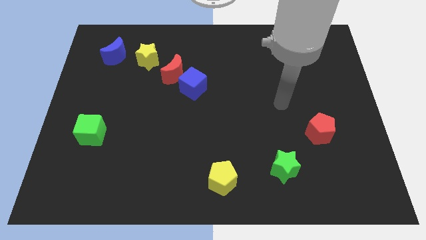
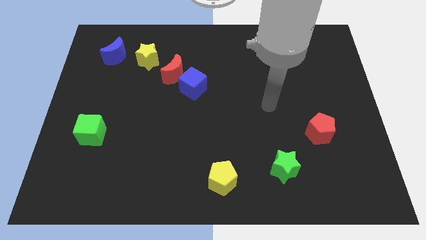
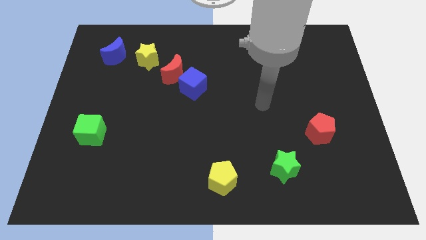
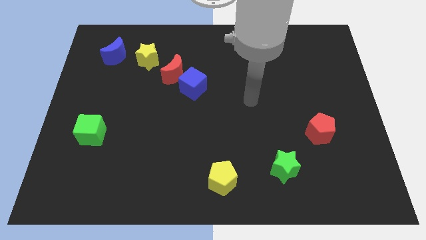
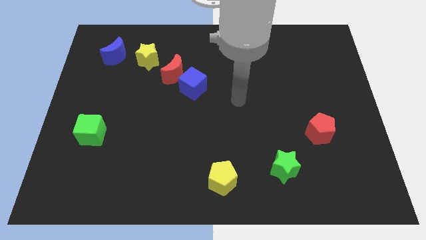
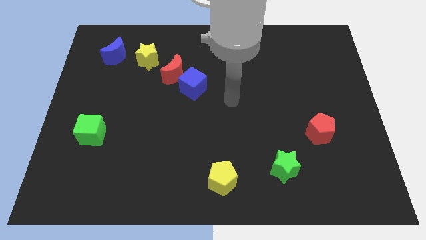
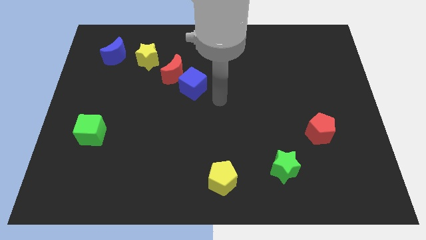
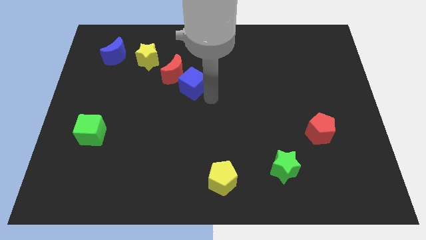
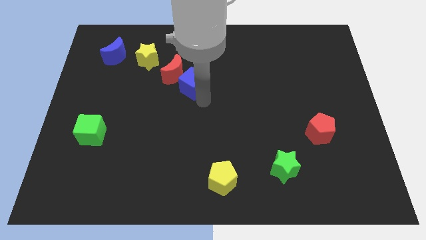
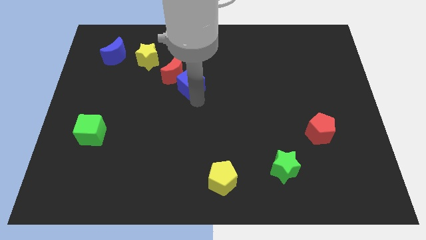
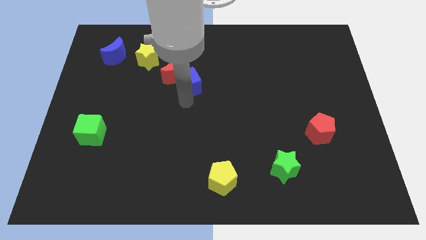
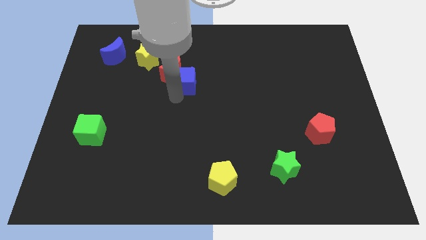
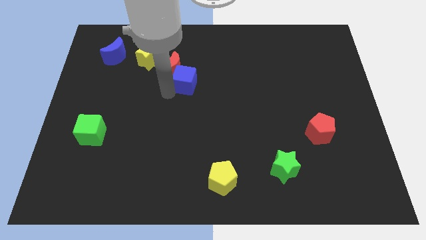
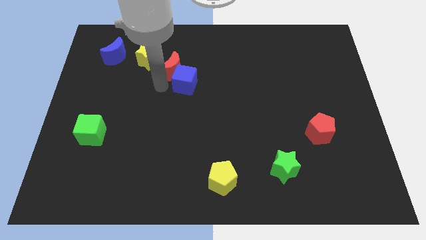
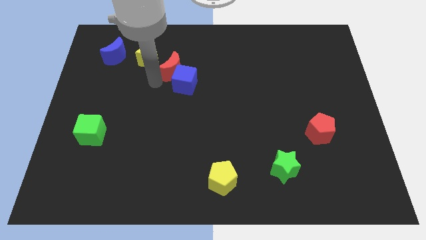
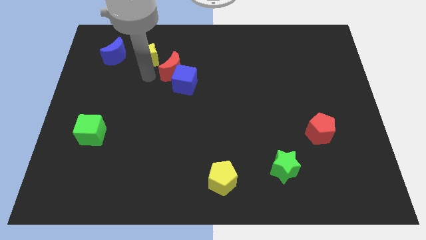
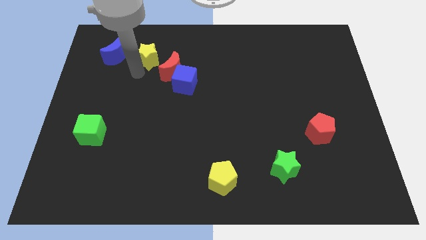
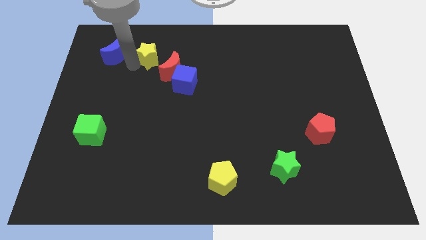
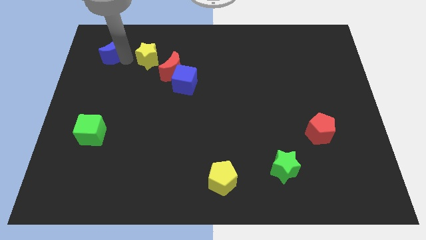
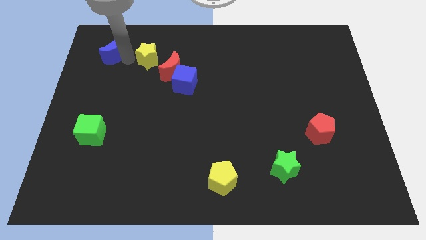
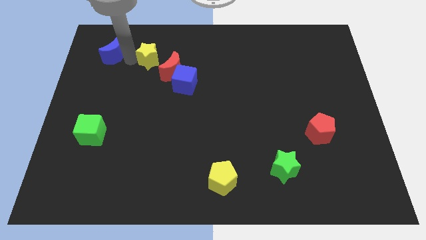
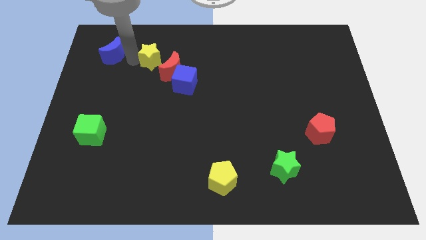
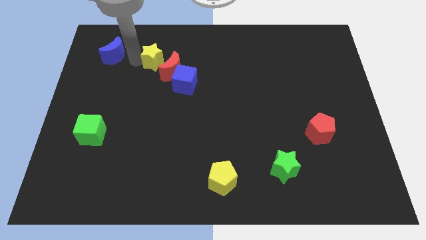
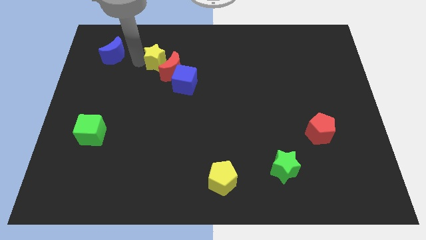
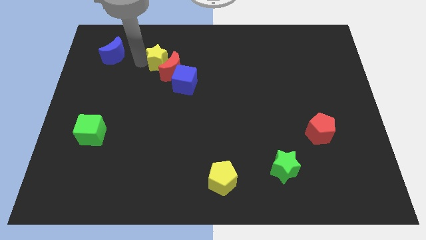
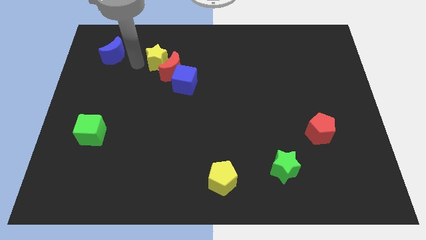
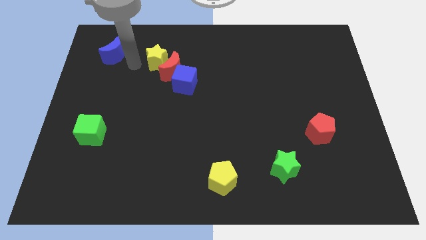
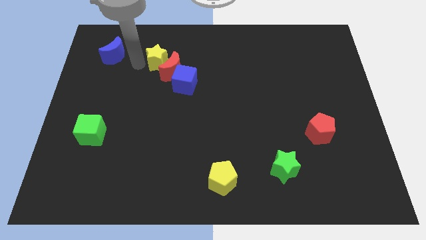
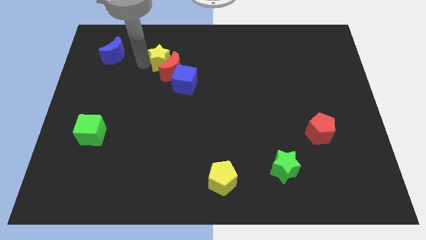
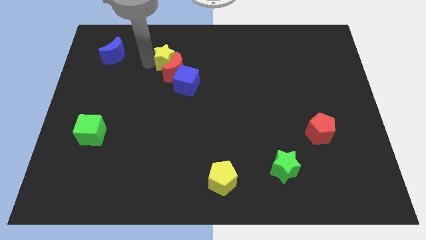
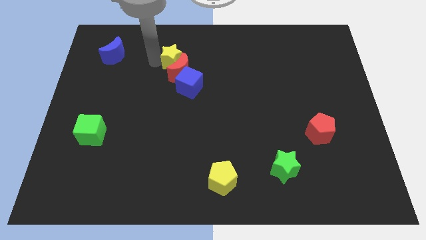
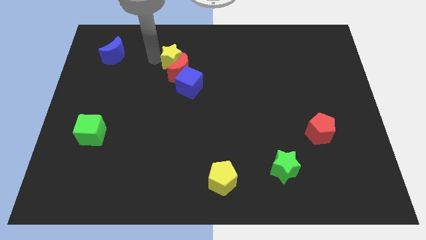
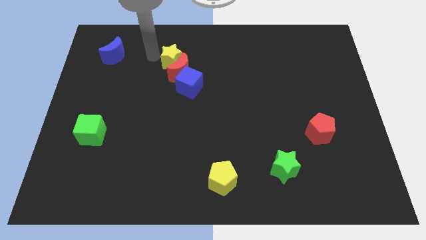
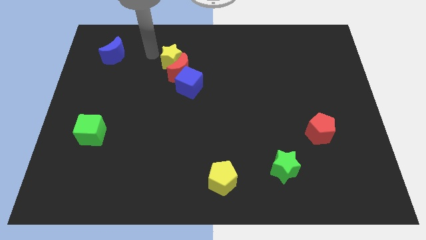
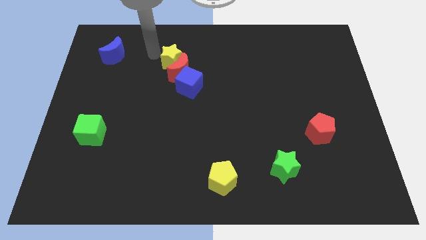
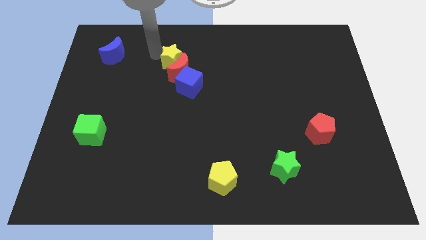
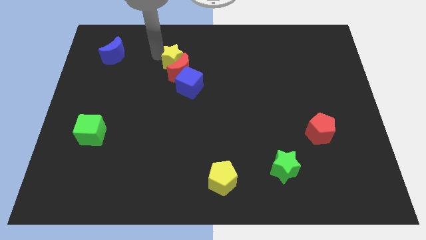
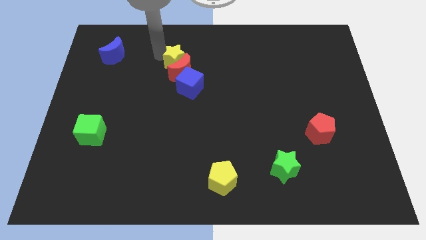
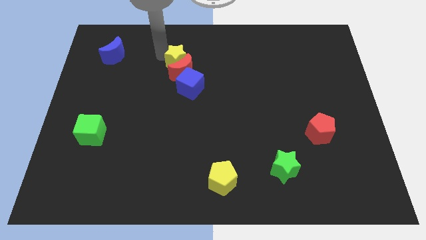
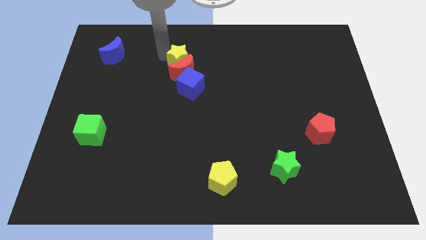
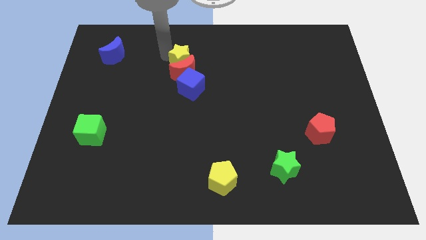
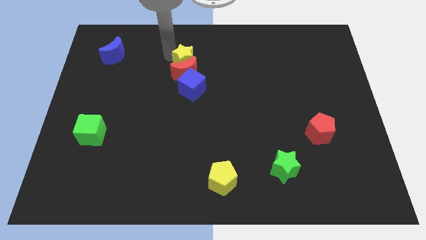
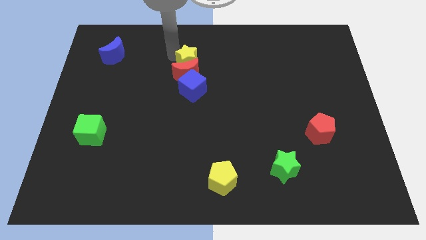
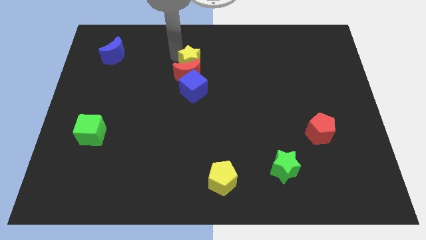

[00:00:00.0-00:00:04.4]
slide the yellow star a bit down and to the right

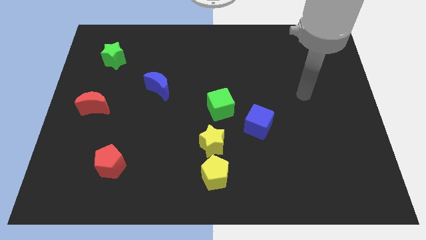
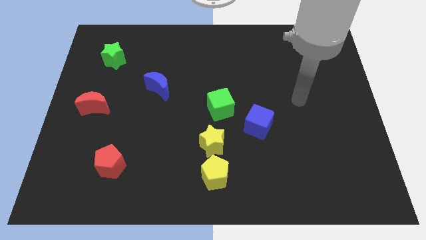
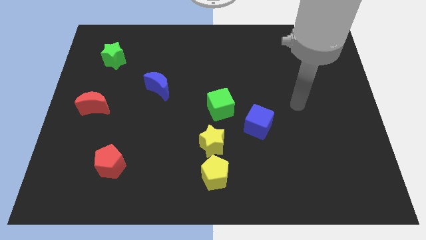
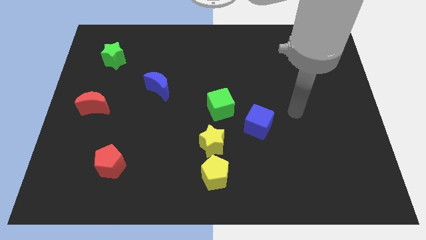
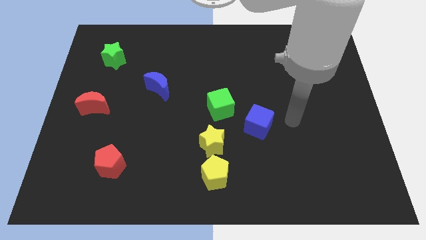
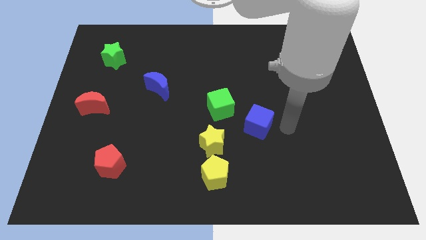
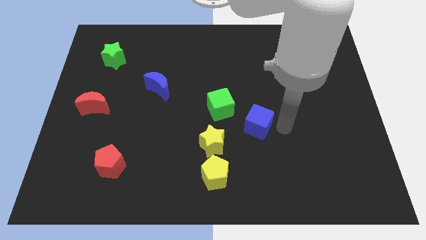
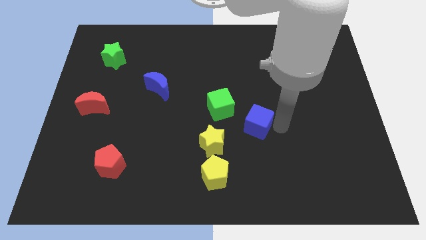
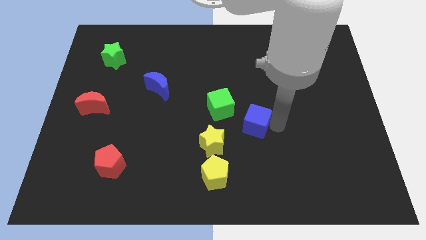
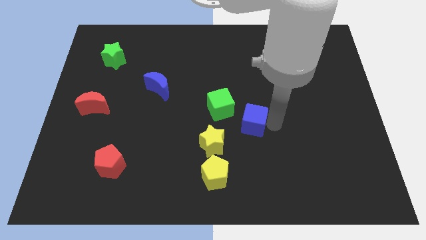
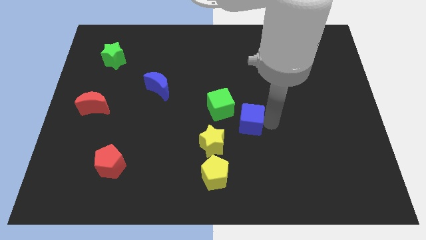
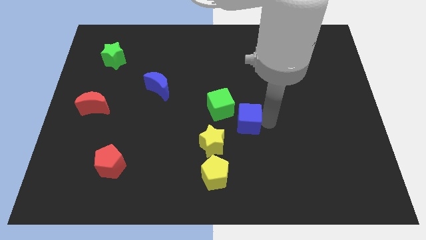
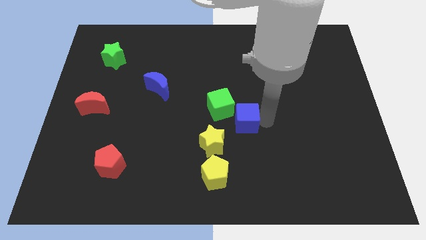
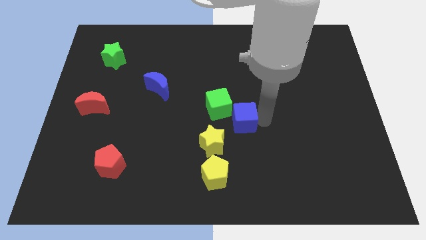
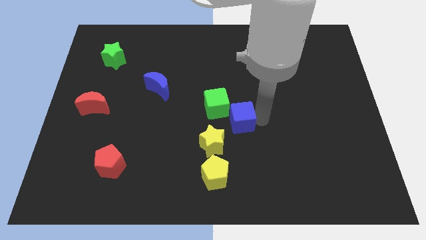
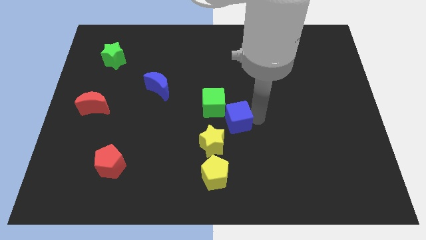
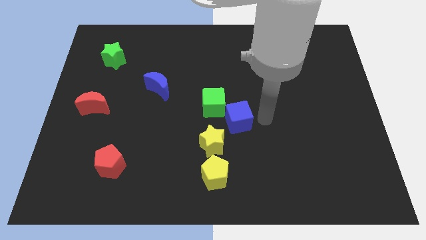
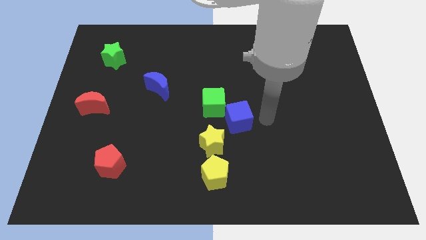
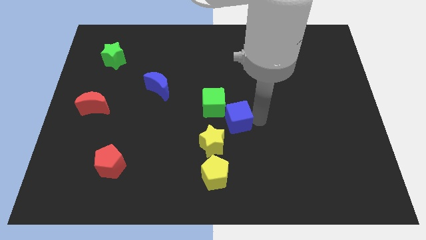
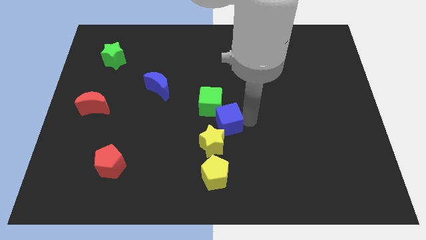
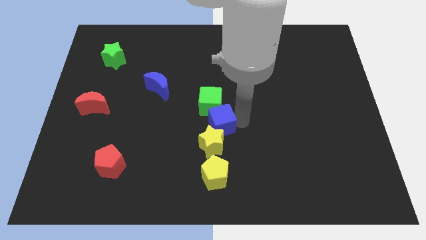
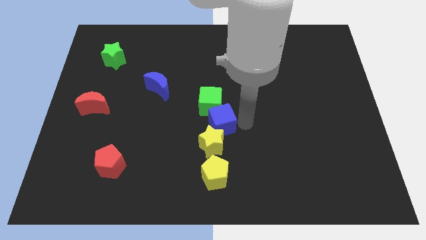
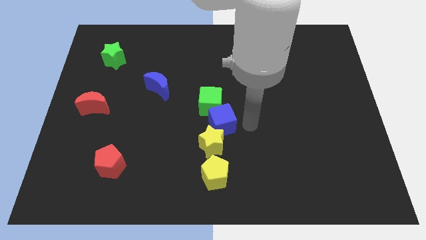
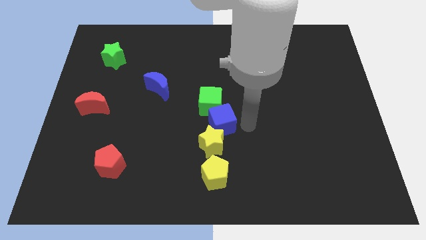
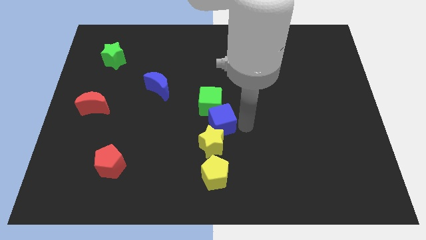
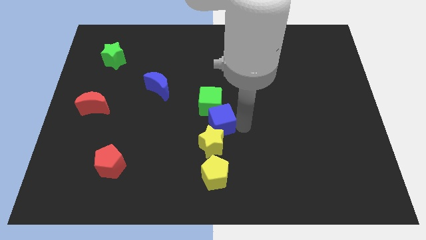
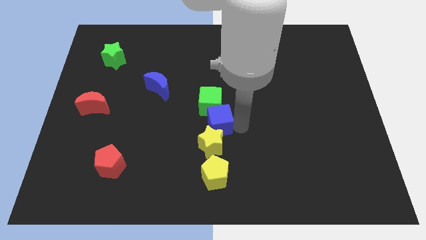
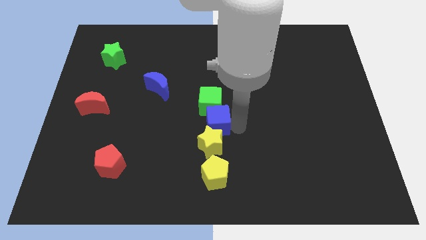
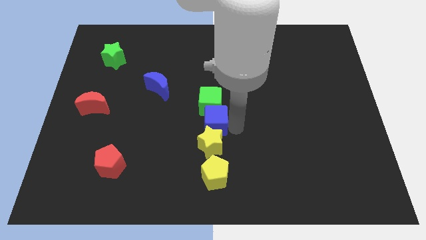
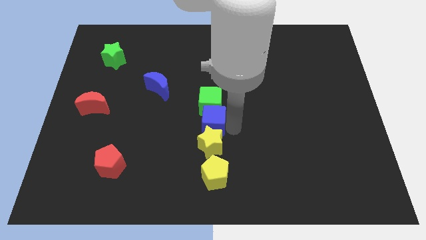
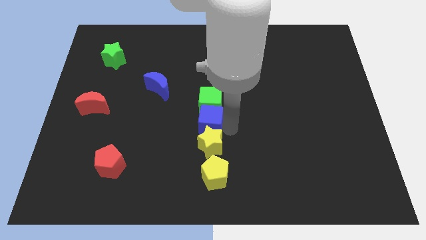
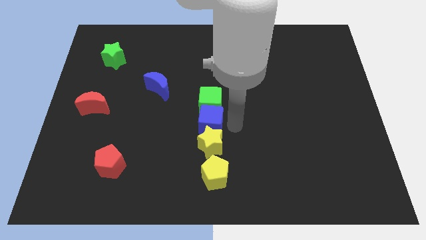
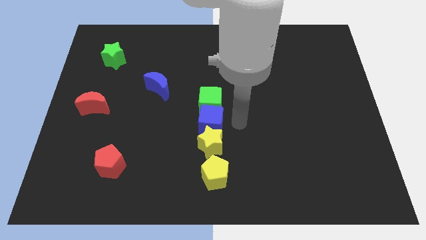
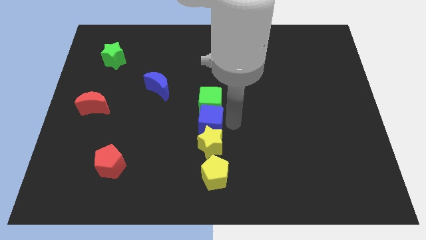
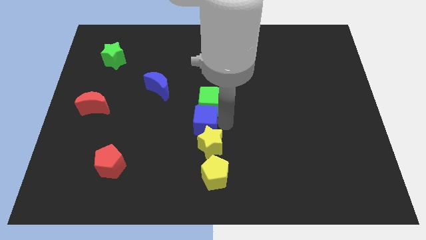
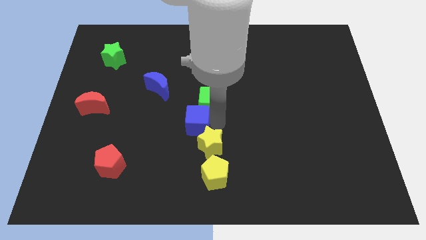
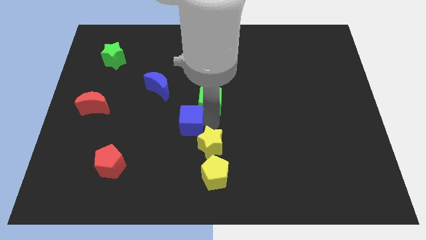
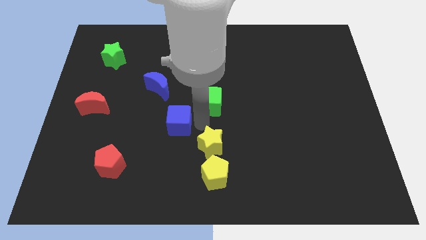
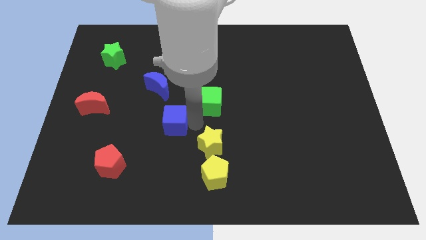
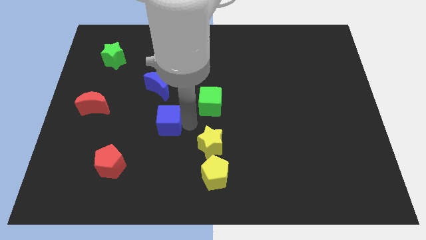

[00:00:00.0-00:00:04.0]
slide the blue cube left
